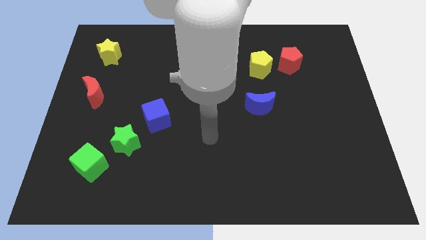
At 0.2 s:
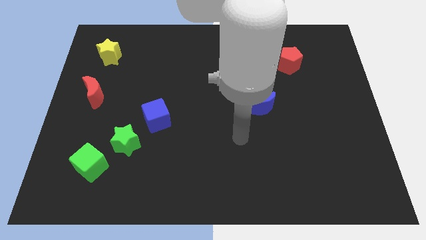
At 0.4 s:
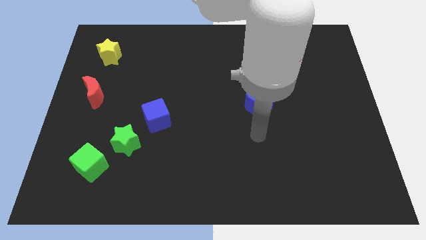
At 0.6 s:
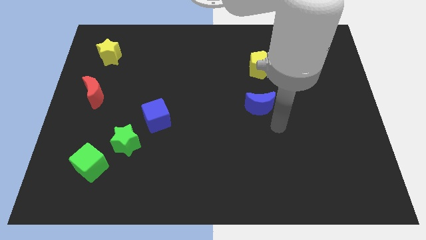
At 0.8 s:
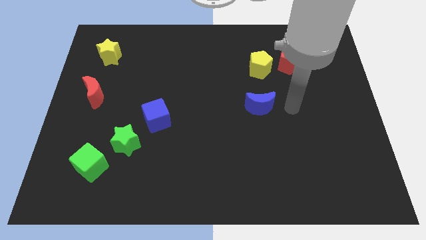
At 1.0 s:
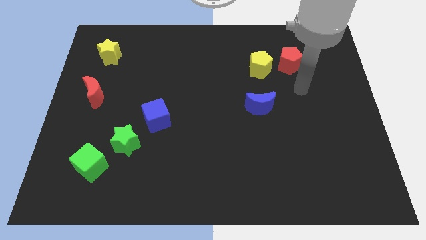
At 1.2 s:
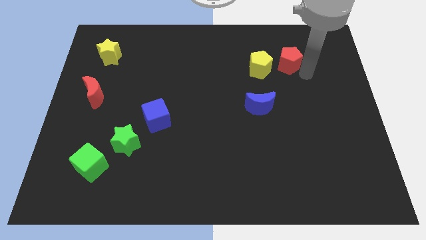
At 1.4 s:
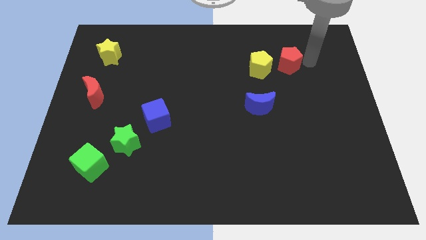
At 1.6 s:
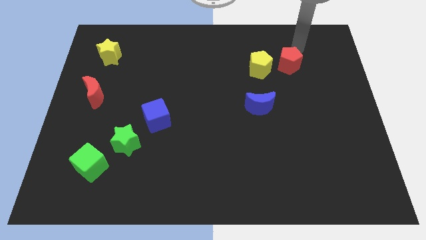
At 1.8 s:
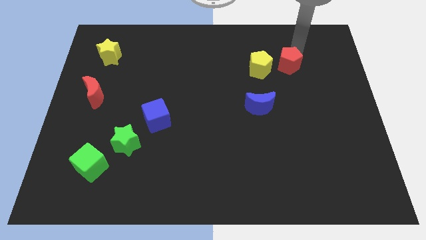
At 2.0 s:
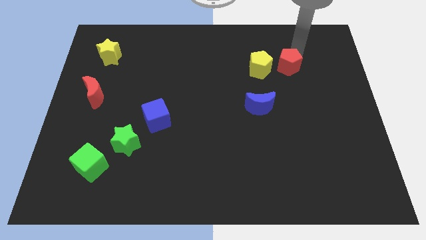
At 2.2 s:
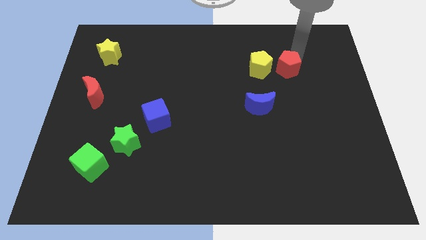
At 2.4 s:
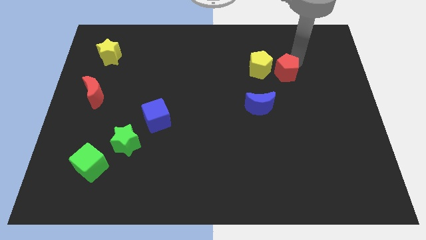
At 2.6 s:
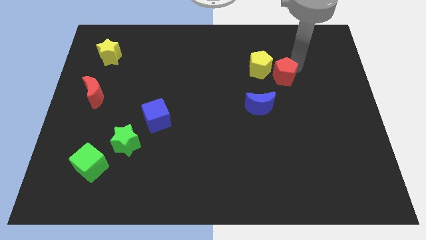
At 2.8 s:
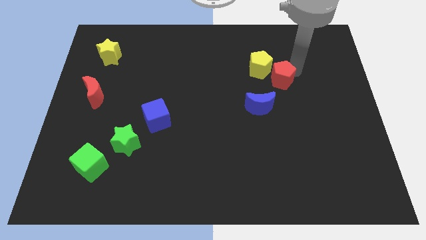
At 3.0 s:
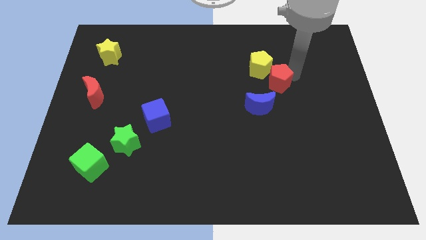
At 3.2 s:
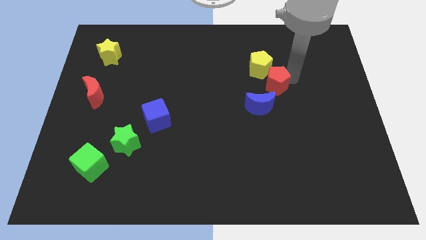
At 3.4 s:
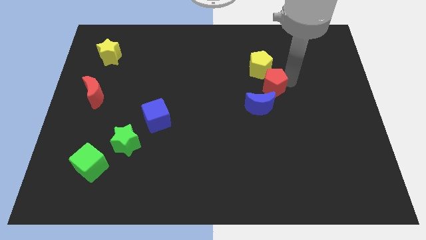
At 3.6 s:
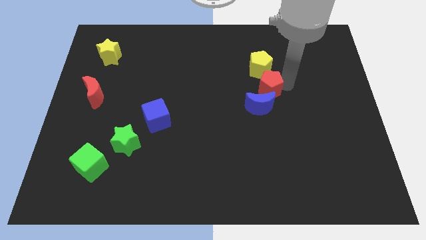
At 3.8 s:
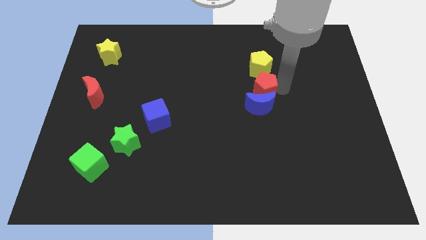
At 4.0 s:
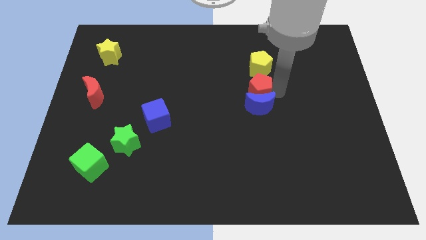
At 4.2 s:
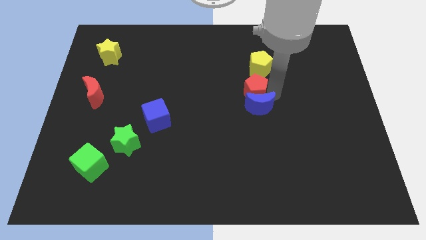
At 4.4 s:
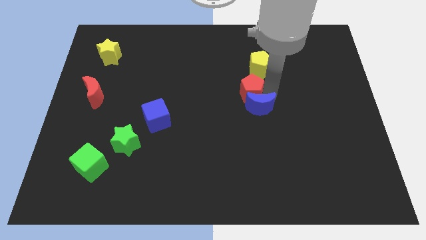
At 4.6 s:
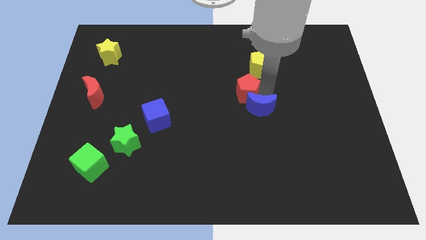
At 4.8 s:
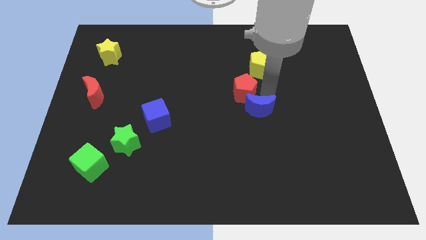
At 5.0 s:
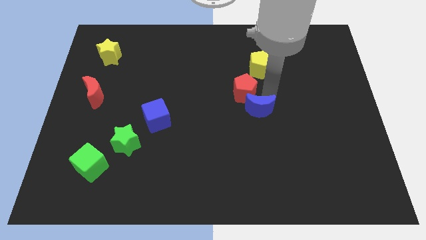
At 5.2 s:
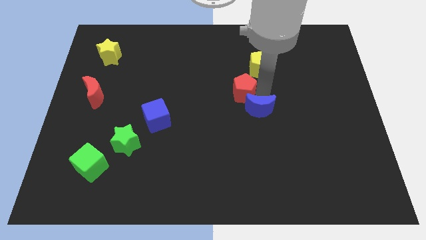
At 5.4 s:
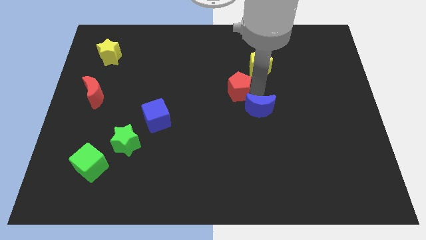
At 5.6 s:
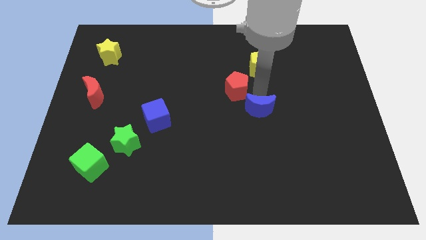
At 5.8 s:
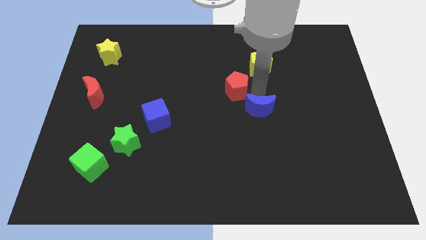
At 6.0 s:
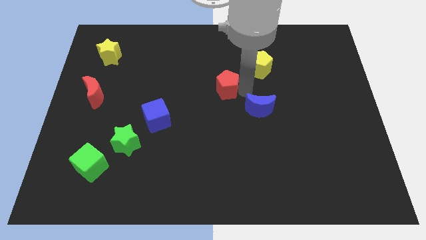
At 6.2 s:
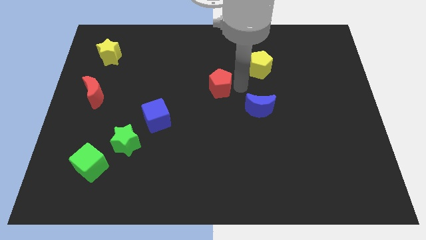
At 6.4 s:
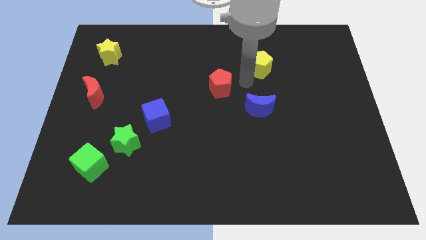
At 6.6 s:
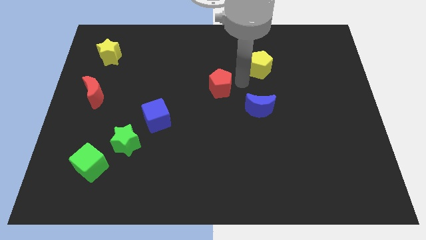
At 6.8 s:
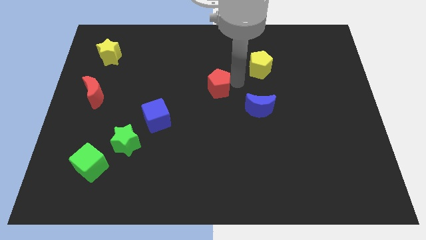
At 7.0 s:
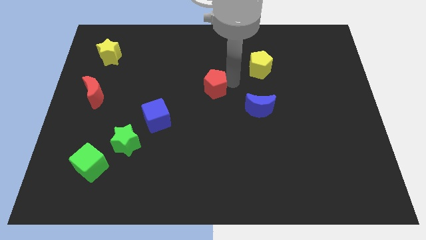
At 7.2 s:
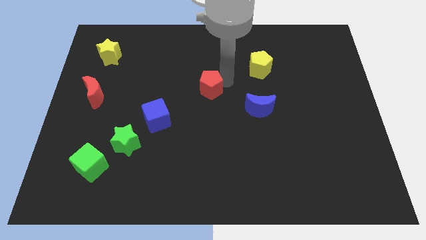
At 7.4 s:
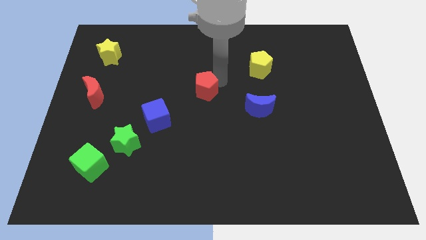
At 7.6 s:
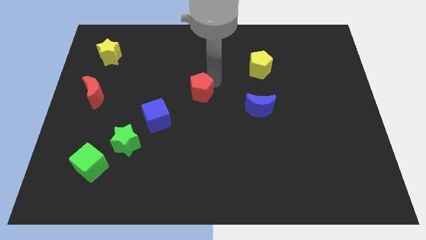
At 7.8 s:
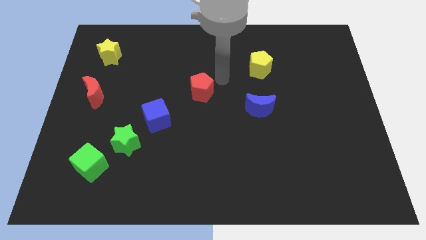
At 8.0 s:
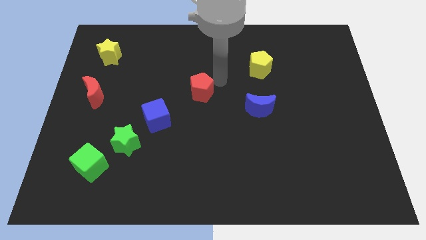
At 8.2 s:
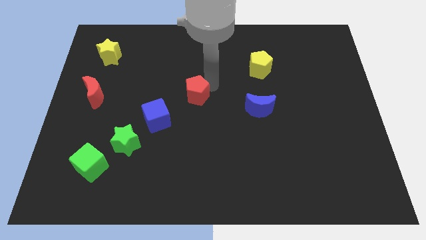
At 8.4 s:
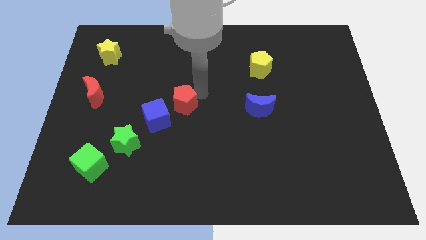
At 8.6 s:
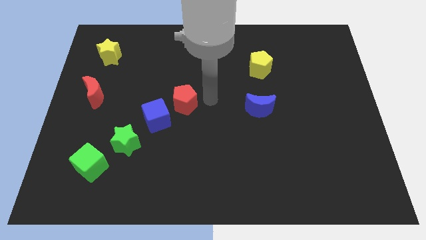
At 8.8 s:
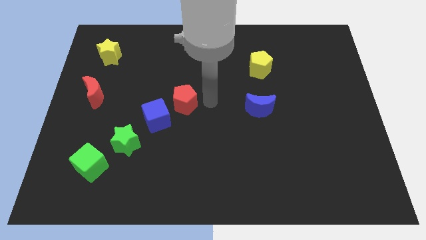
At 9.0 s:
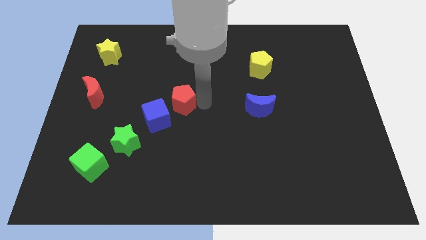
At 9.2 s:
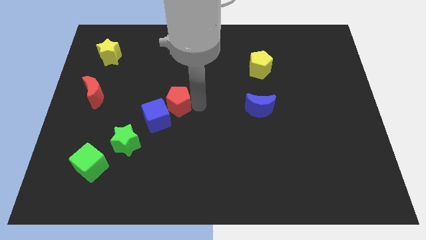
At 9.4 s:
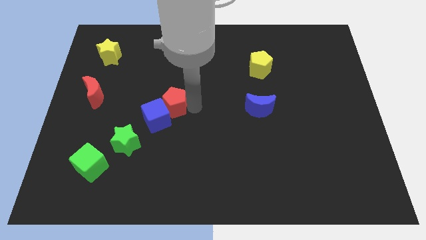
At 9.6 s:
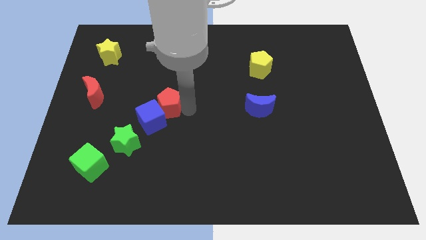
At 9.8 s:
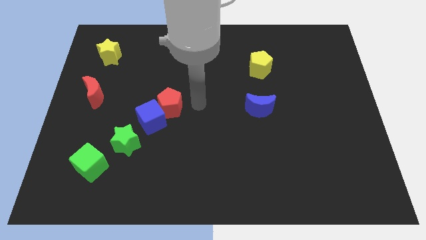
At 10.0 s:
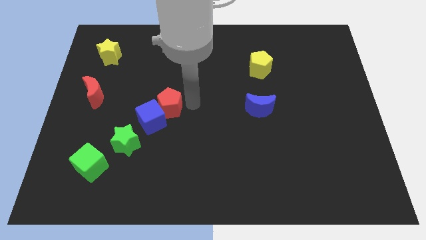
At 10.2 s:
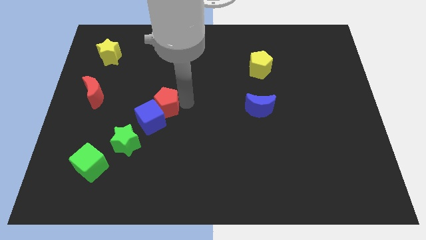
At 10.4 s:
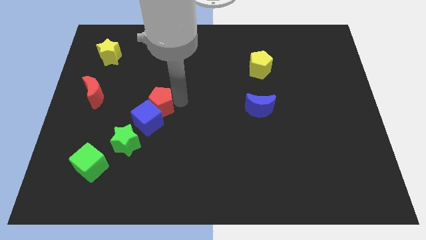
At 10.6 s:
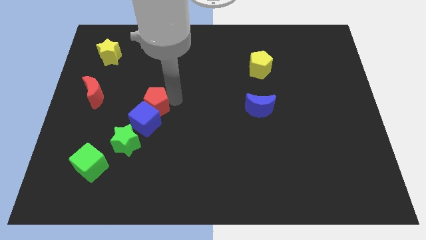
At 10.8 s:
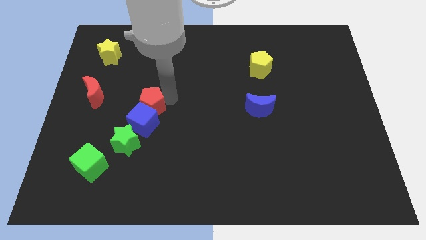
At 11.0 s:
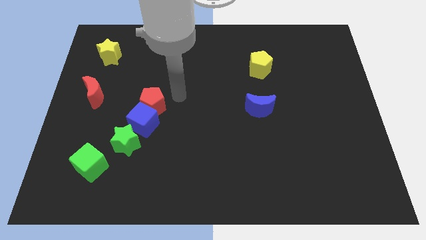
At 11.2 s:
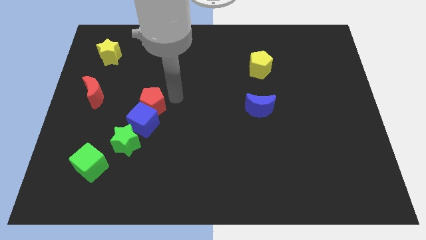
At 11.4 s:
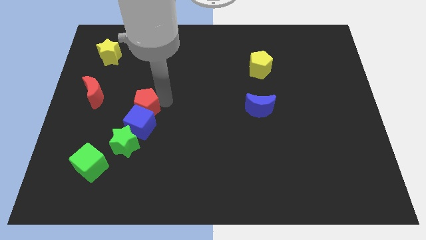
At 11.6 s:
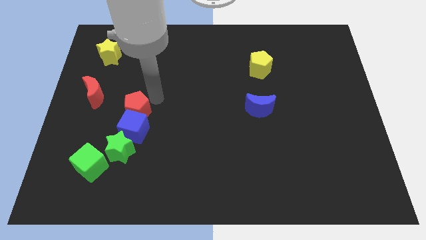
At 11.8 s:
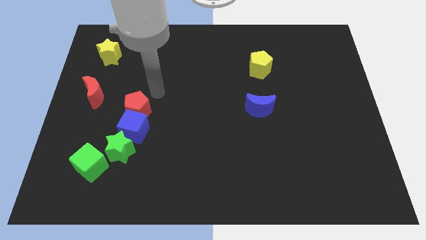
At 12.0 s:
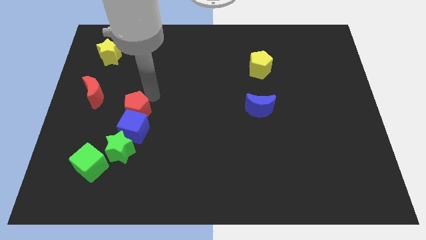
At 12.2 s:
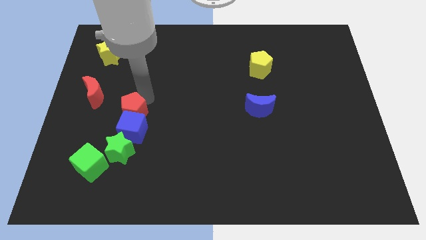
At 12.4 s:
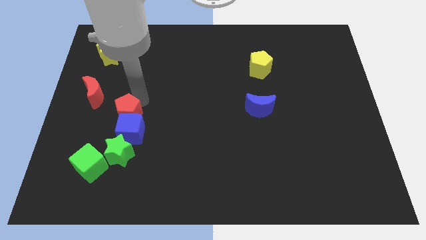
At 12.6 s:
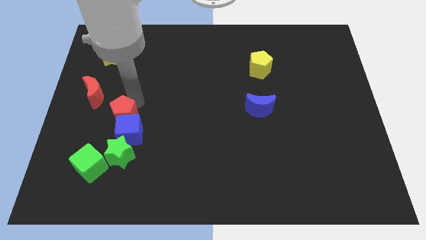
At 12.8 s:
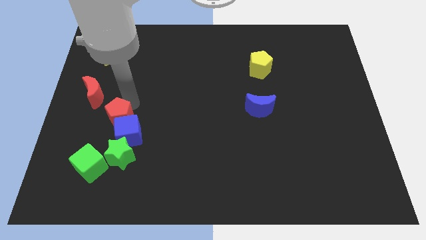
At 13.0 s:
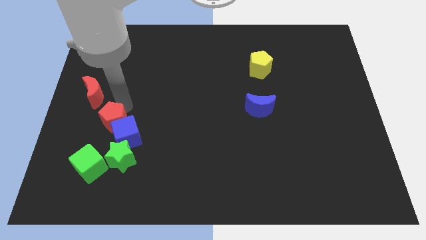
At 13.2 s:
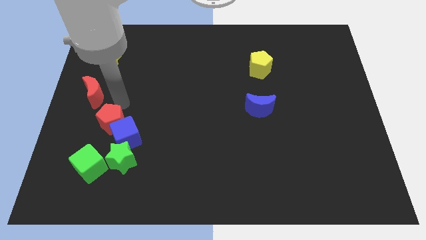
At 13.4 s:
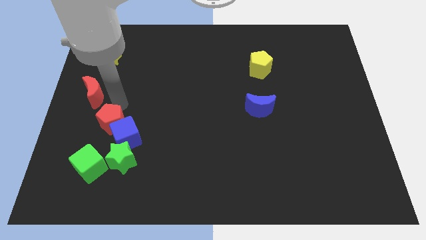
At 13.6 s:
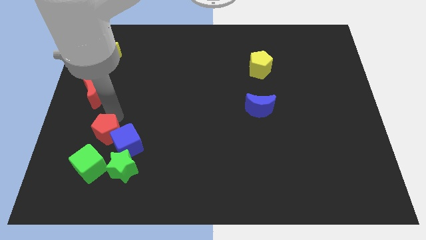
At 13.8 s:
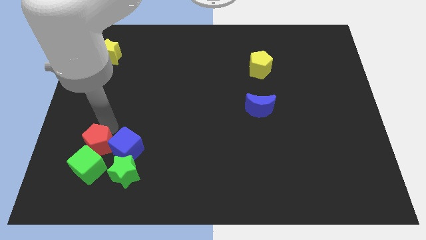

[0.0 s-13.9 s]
slide the red pentagon to the green cube
